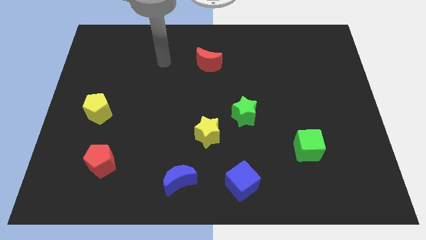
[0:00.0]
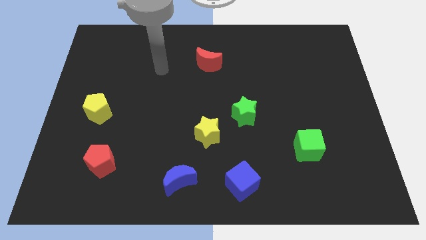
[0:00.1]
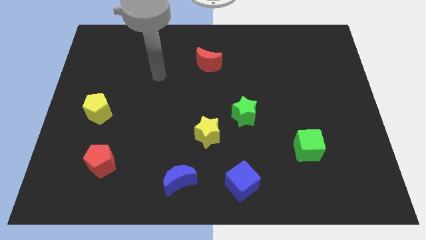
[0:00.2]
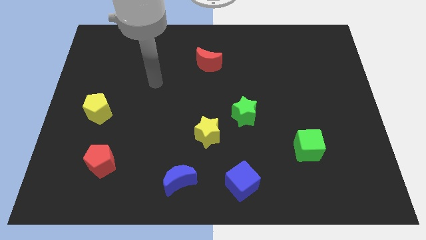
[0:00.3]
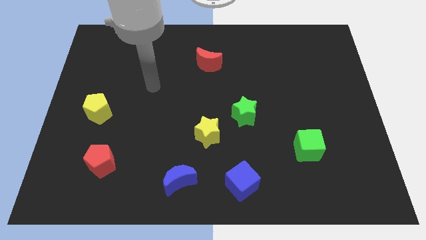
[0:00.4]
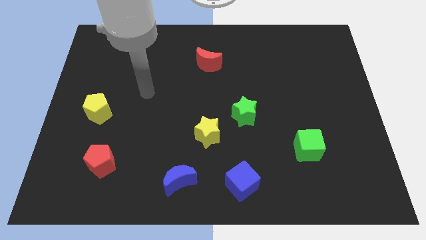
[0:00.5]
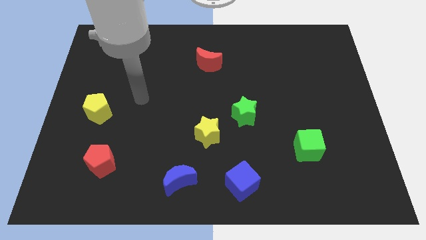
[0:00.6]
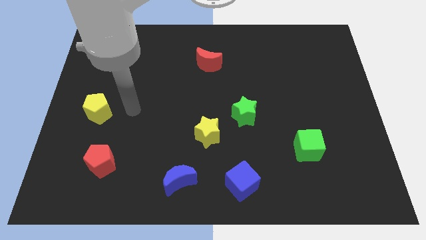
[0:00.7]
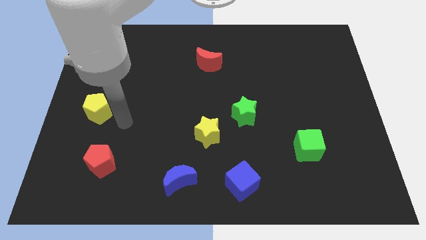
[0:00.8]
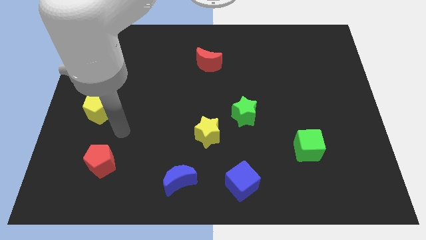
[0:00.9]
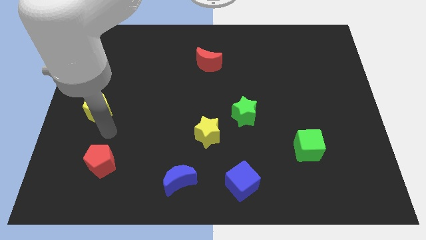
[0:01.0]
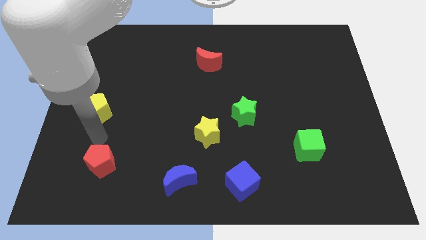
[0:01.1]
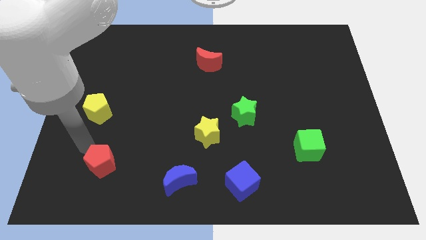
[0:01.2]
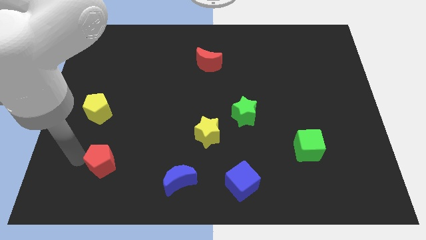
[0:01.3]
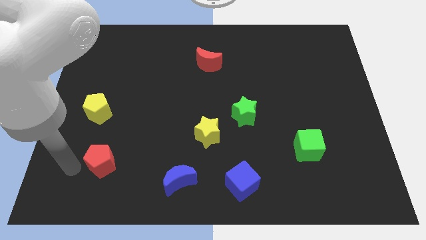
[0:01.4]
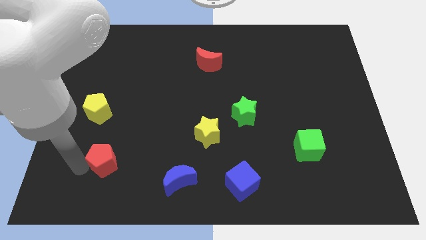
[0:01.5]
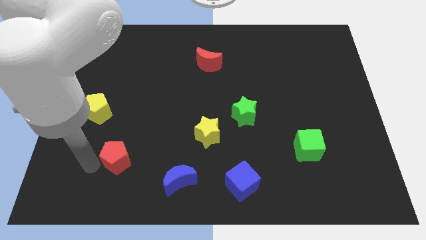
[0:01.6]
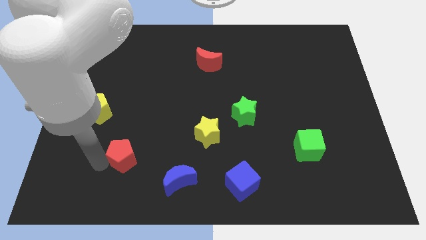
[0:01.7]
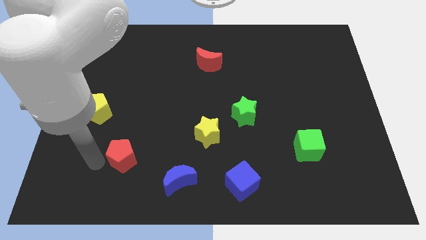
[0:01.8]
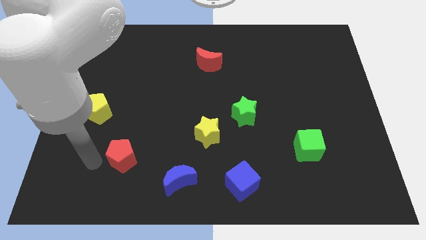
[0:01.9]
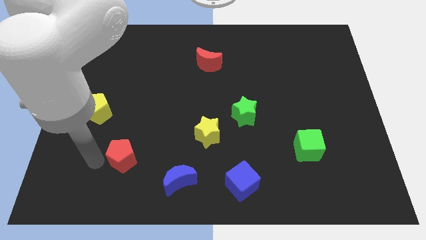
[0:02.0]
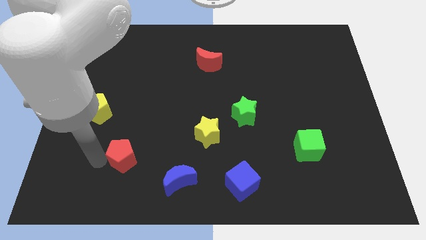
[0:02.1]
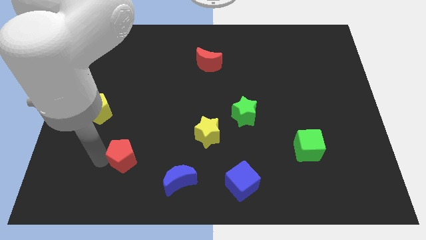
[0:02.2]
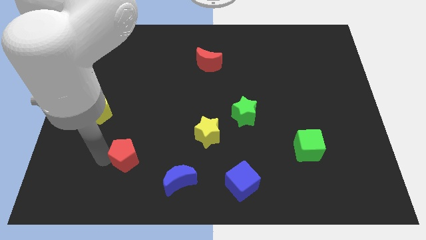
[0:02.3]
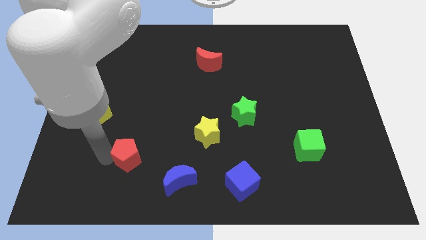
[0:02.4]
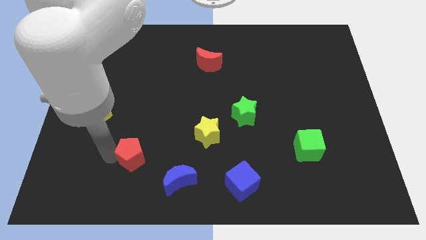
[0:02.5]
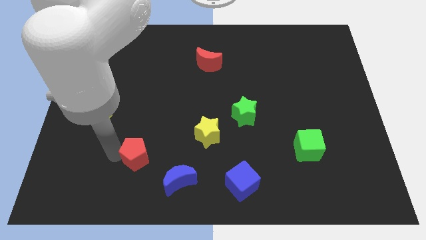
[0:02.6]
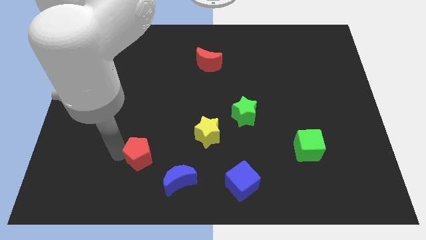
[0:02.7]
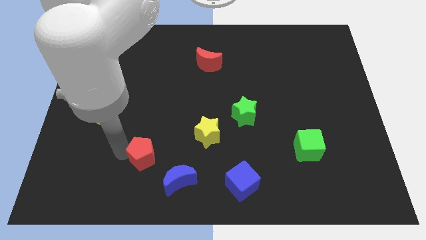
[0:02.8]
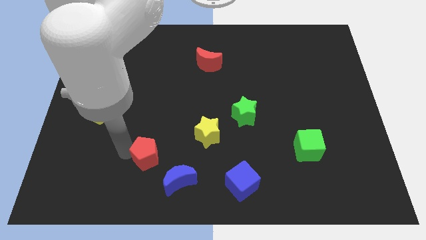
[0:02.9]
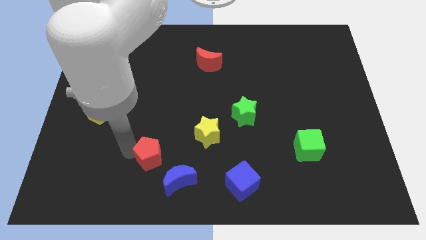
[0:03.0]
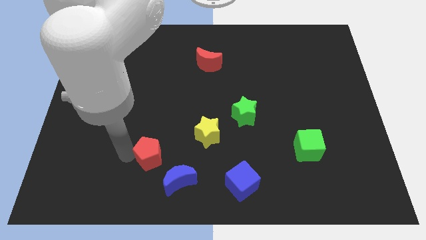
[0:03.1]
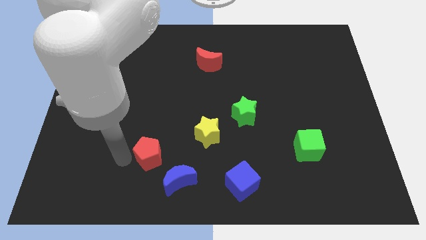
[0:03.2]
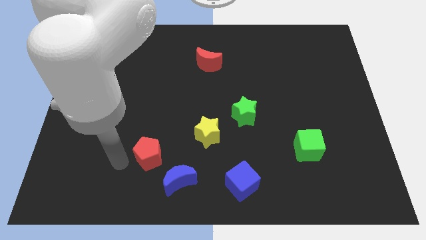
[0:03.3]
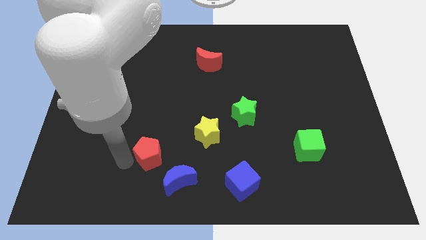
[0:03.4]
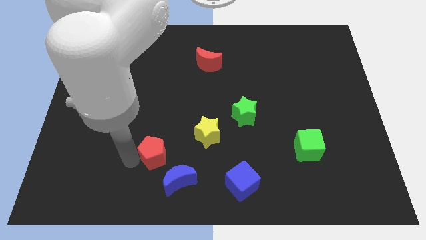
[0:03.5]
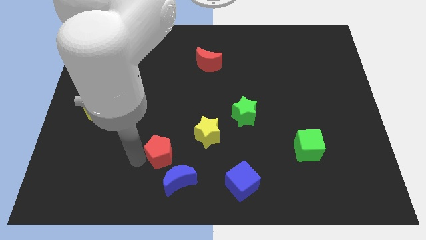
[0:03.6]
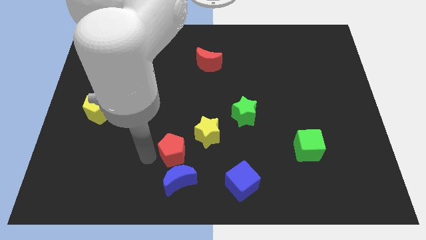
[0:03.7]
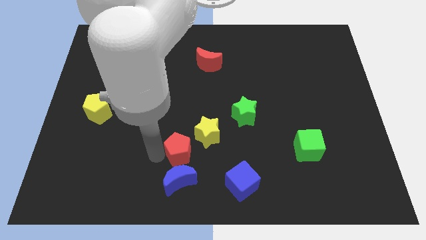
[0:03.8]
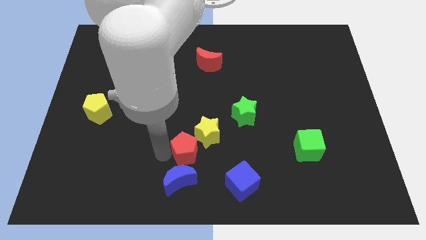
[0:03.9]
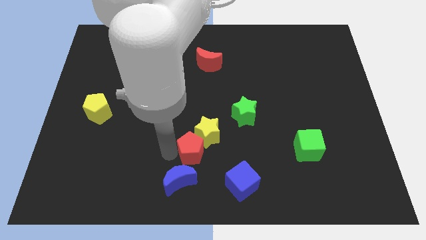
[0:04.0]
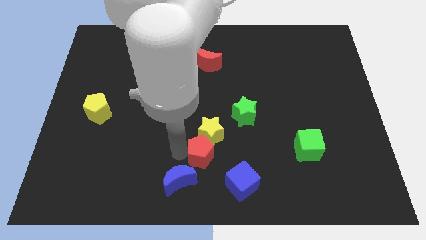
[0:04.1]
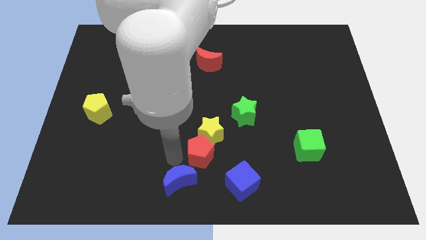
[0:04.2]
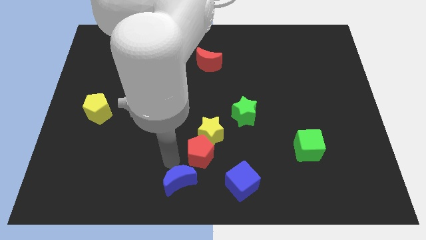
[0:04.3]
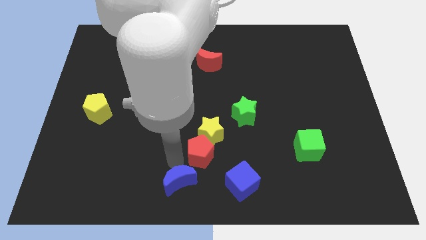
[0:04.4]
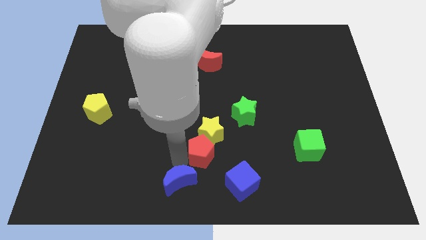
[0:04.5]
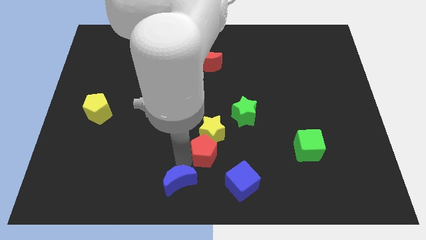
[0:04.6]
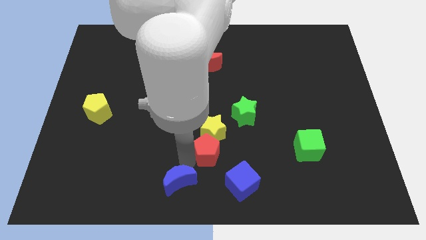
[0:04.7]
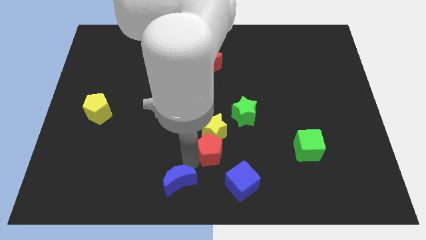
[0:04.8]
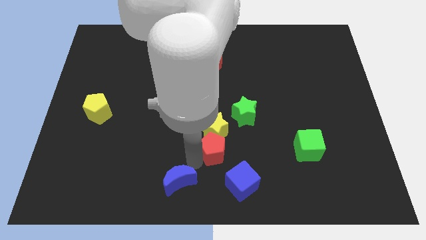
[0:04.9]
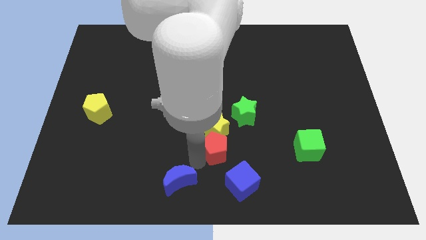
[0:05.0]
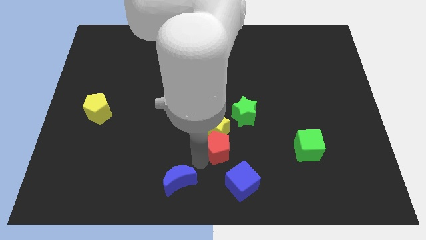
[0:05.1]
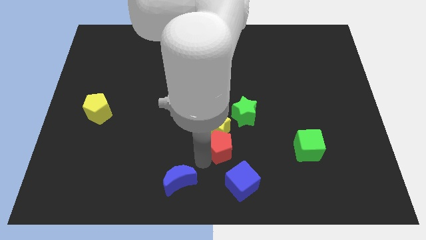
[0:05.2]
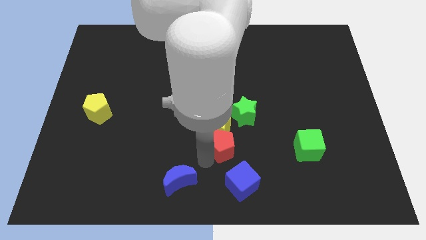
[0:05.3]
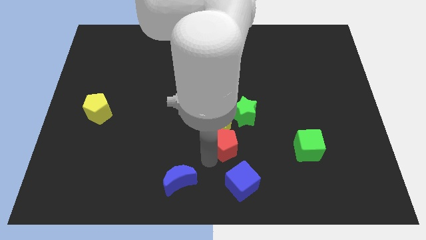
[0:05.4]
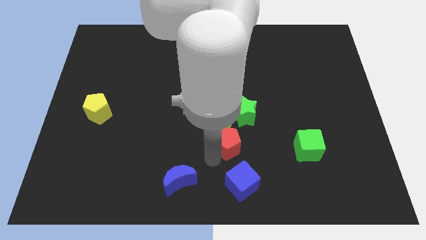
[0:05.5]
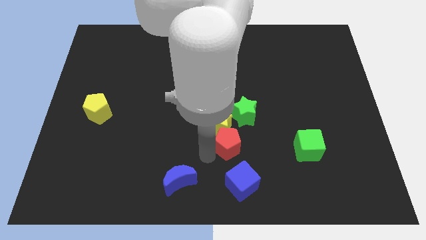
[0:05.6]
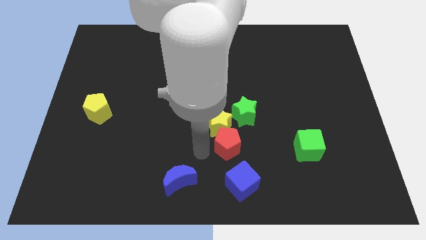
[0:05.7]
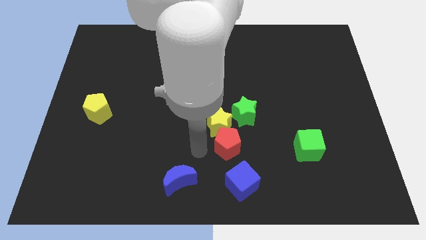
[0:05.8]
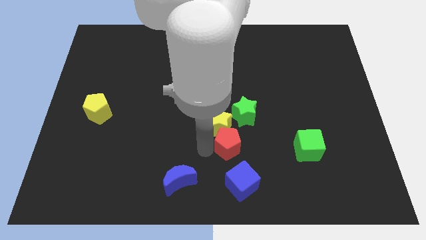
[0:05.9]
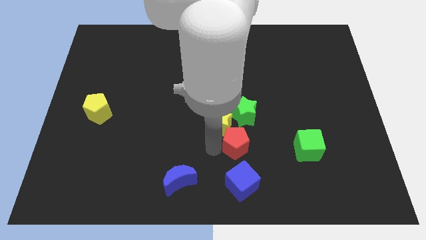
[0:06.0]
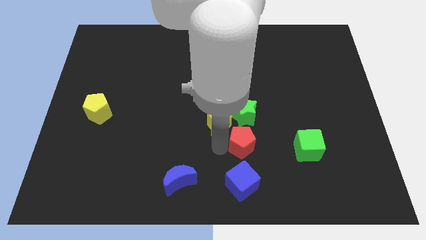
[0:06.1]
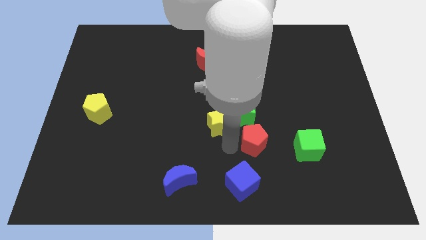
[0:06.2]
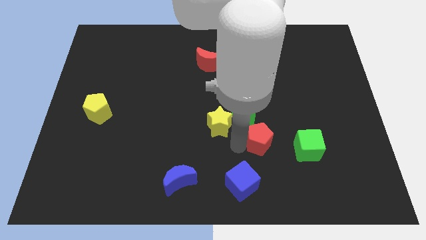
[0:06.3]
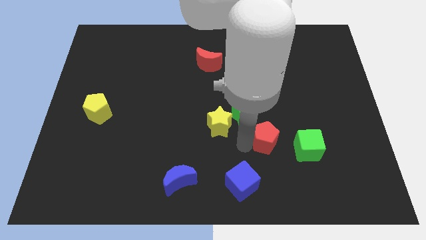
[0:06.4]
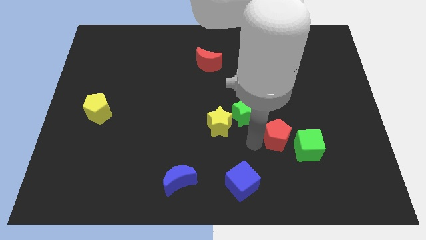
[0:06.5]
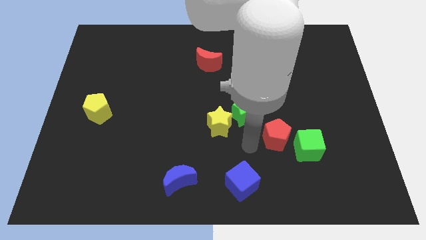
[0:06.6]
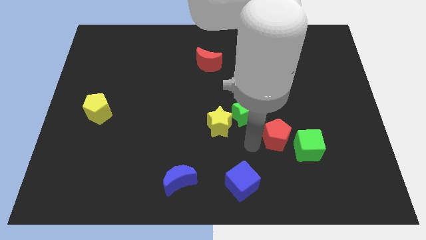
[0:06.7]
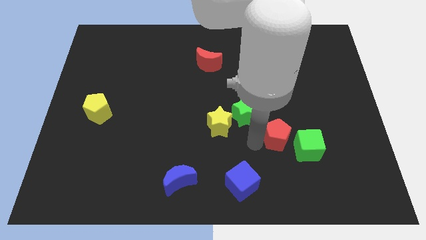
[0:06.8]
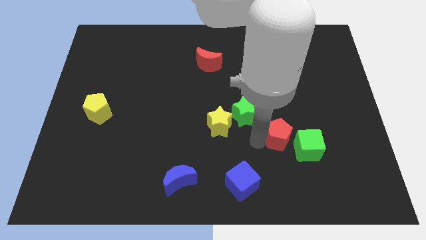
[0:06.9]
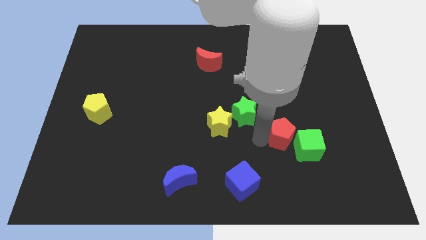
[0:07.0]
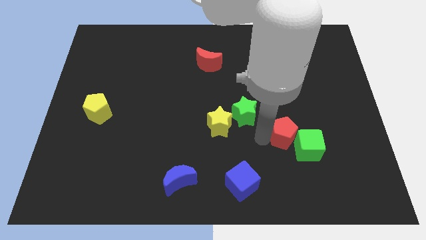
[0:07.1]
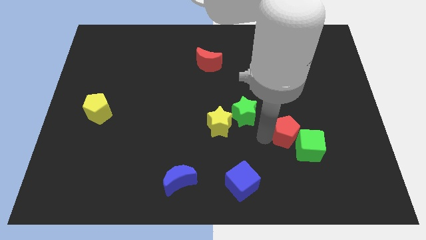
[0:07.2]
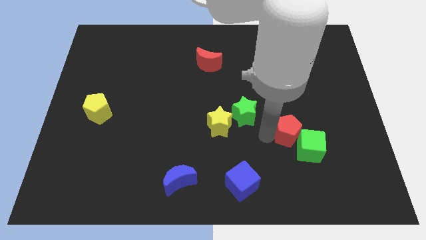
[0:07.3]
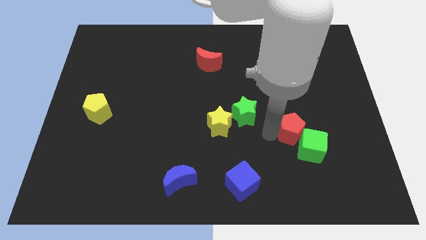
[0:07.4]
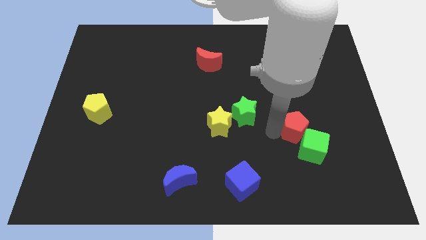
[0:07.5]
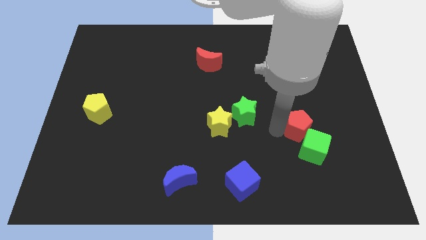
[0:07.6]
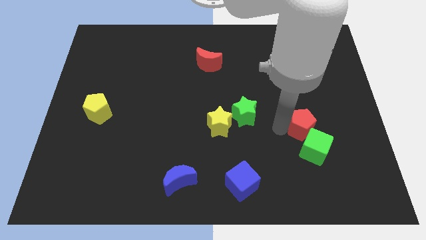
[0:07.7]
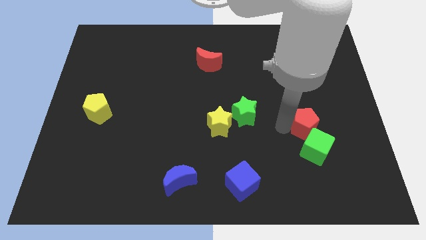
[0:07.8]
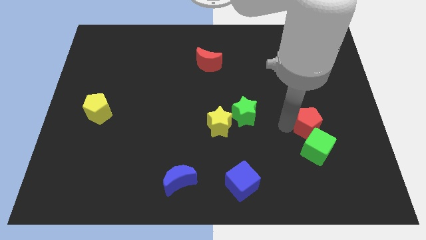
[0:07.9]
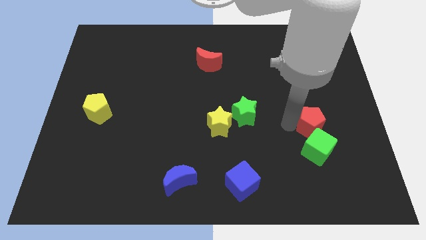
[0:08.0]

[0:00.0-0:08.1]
slide the red pentagon to the top right side of the green cube
